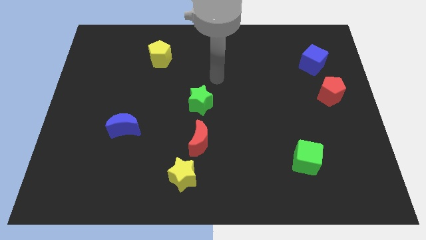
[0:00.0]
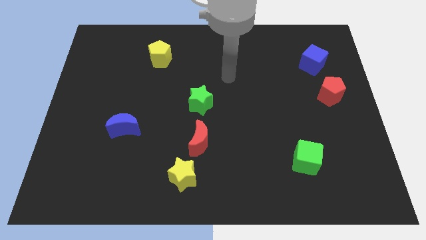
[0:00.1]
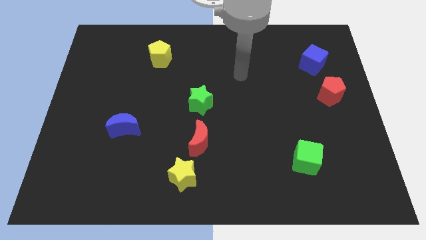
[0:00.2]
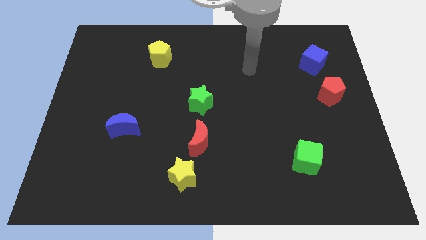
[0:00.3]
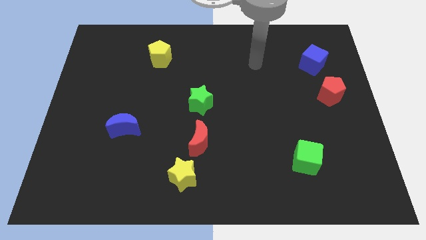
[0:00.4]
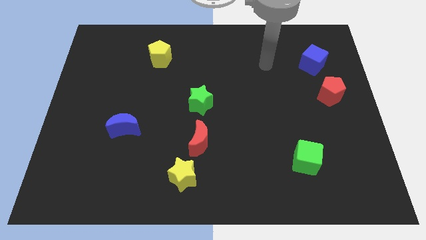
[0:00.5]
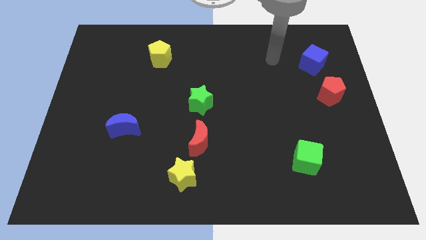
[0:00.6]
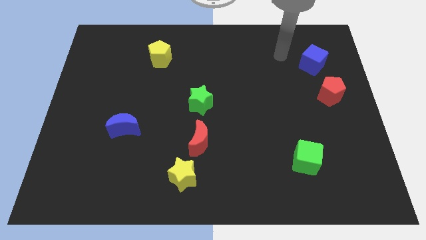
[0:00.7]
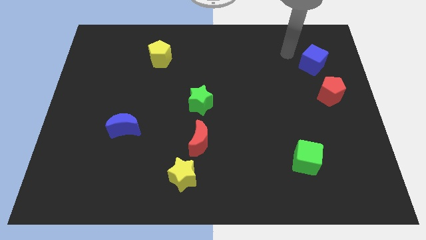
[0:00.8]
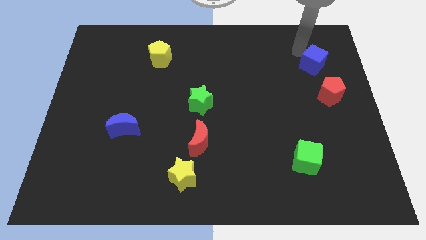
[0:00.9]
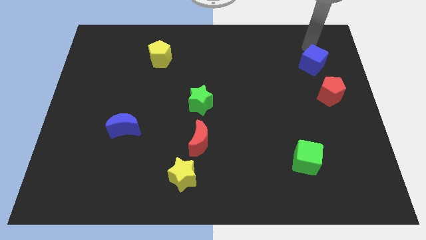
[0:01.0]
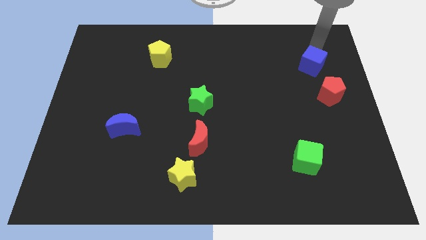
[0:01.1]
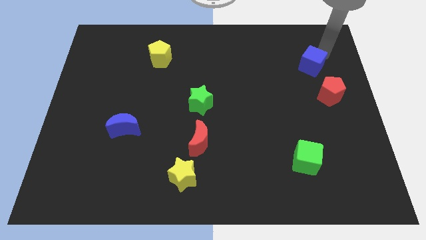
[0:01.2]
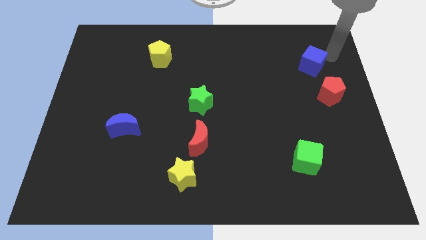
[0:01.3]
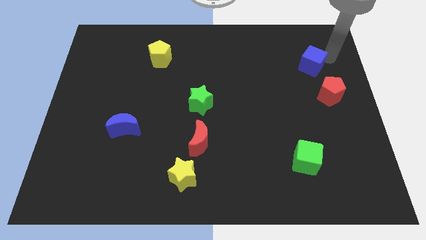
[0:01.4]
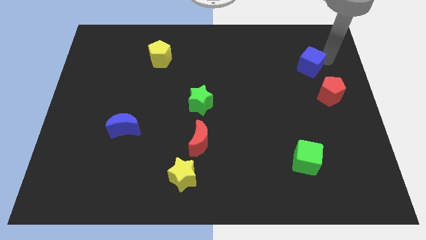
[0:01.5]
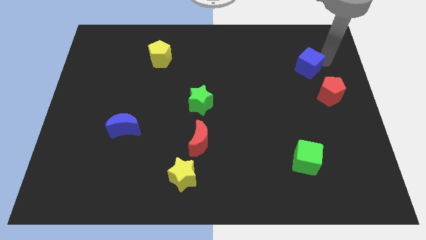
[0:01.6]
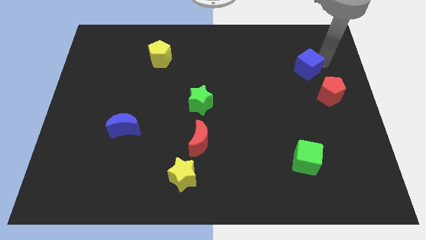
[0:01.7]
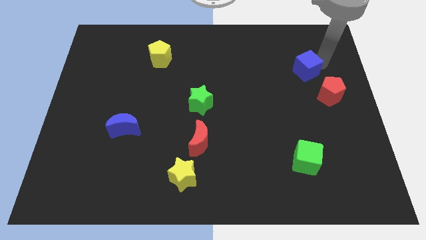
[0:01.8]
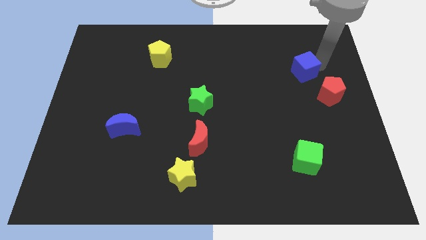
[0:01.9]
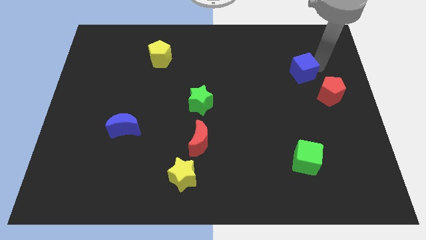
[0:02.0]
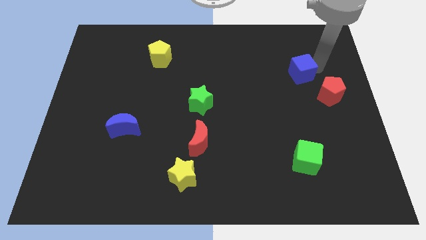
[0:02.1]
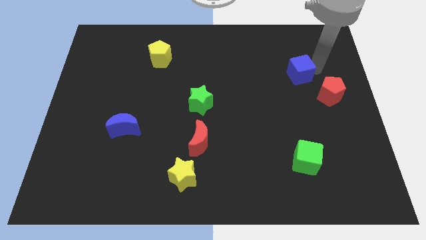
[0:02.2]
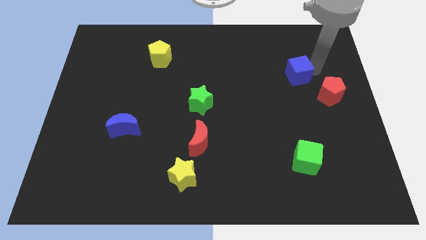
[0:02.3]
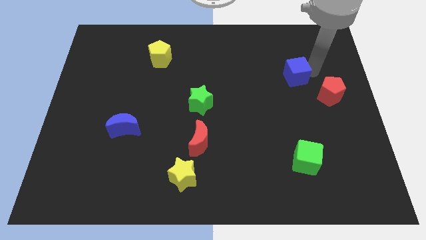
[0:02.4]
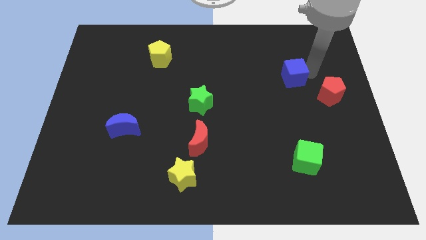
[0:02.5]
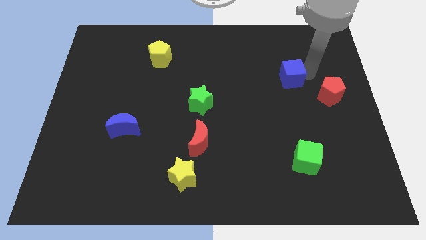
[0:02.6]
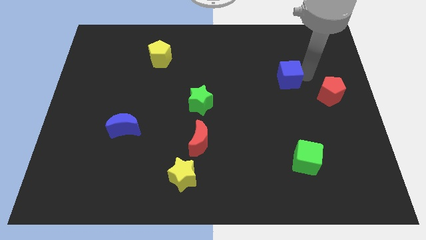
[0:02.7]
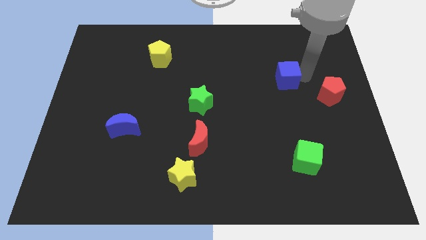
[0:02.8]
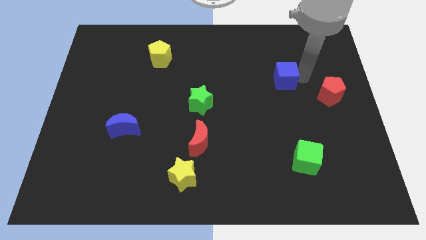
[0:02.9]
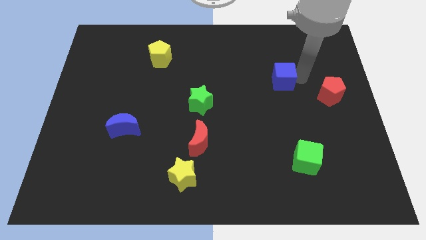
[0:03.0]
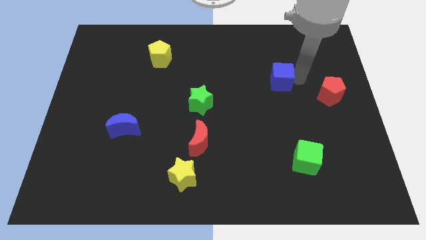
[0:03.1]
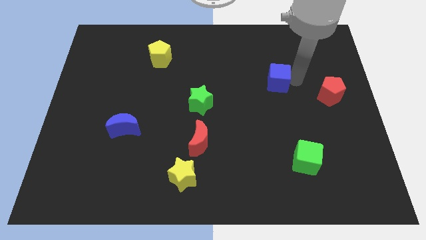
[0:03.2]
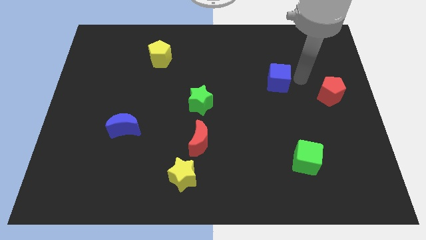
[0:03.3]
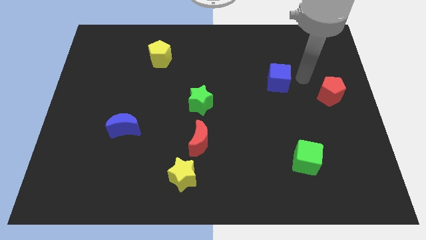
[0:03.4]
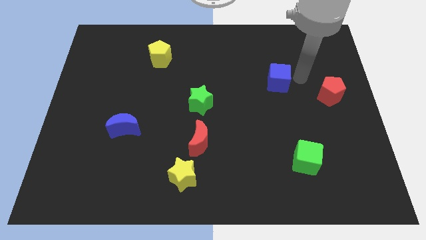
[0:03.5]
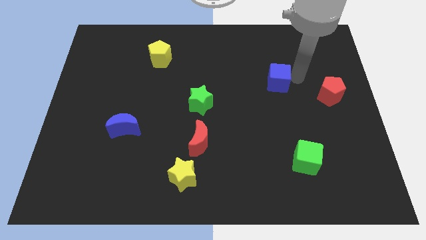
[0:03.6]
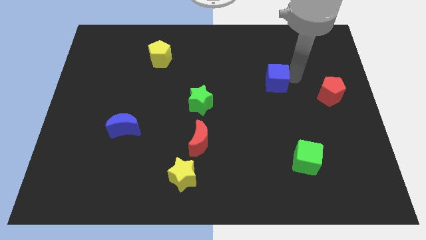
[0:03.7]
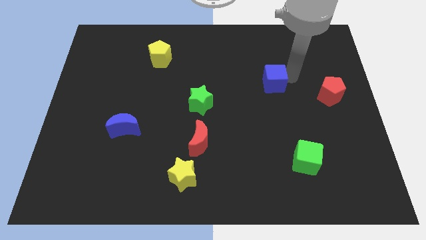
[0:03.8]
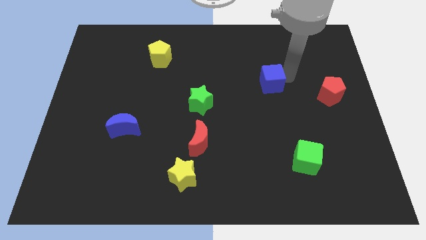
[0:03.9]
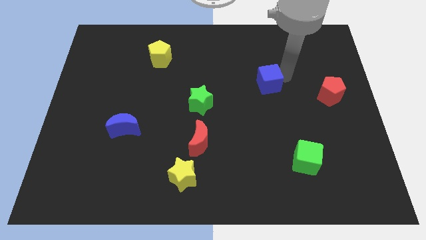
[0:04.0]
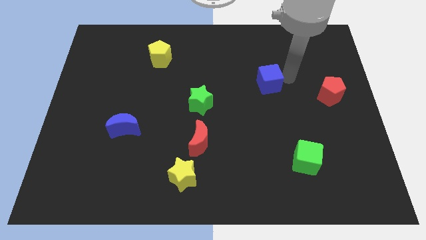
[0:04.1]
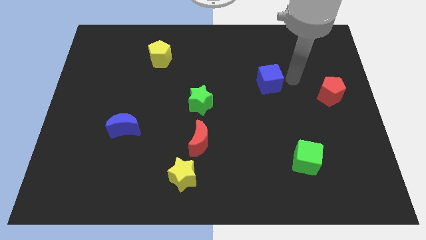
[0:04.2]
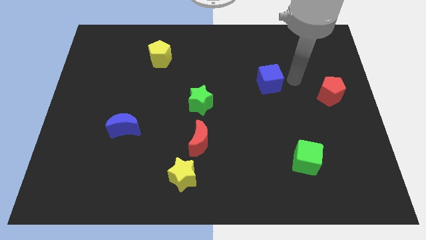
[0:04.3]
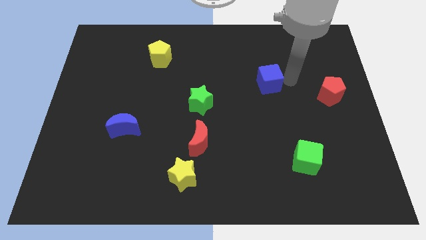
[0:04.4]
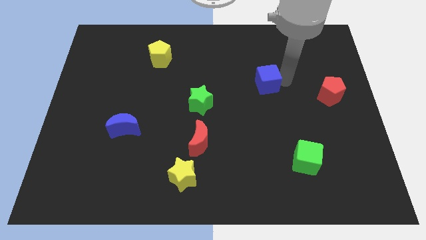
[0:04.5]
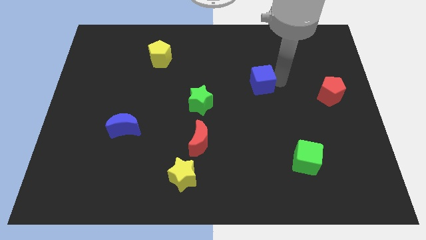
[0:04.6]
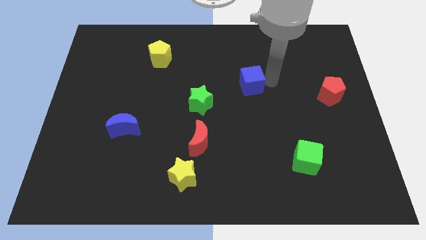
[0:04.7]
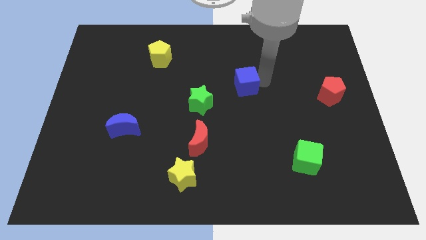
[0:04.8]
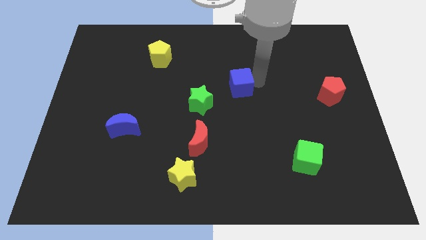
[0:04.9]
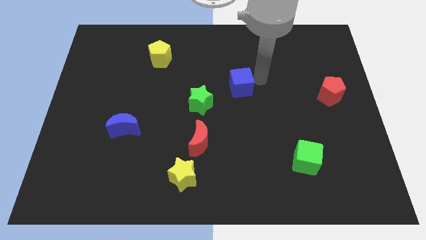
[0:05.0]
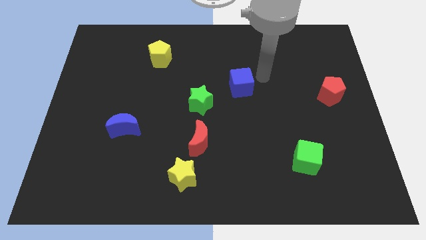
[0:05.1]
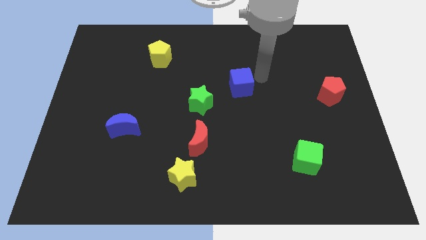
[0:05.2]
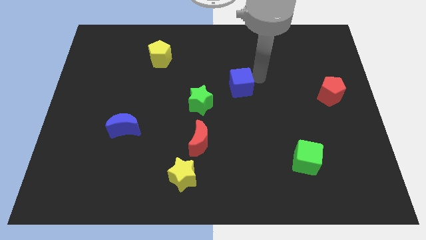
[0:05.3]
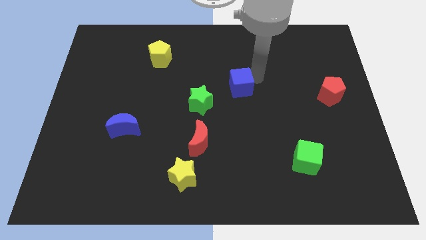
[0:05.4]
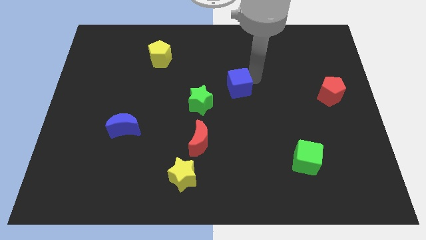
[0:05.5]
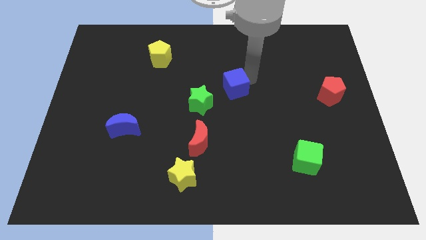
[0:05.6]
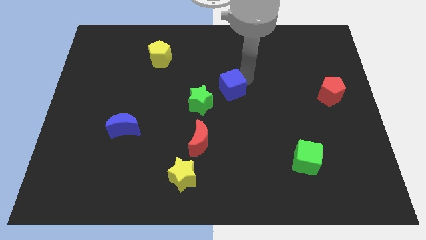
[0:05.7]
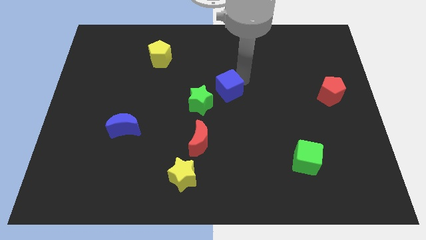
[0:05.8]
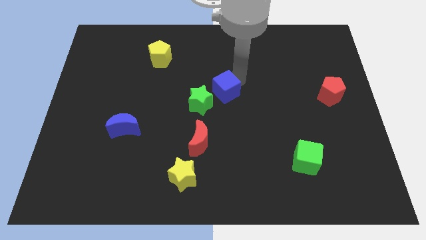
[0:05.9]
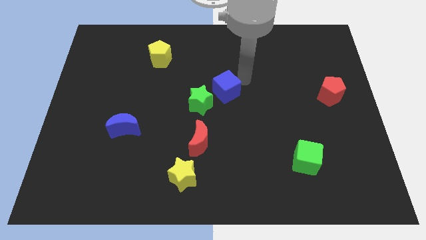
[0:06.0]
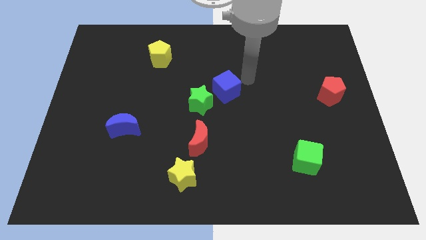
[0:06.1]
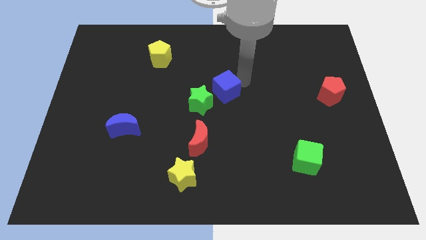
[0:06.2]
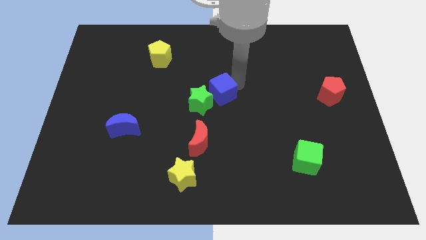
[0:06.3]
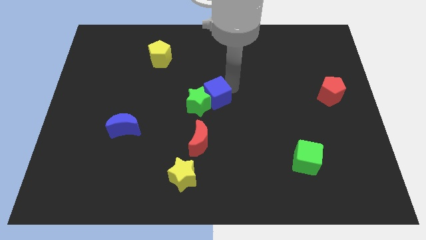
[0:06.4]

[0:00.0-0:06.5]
push the blue cube to the green star

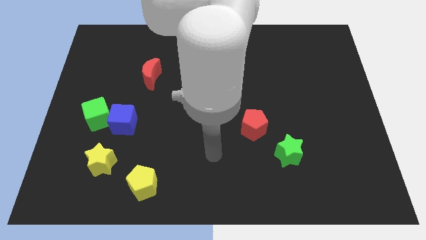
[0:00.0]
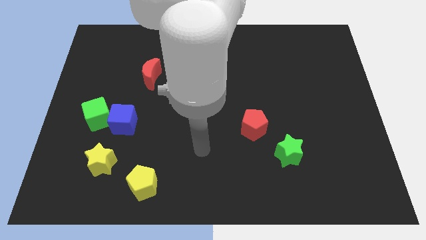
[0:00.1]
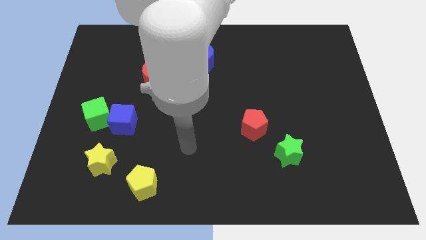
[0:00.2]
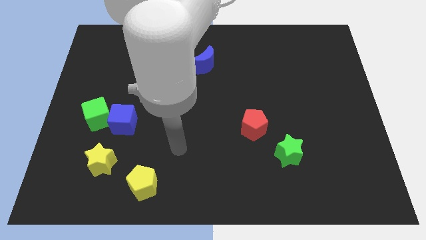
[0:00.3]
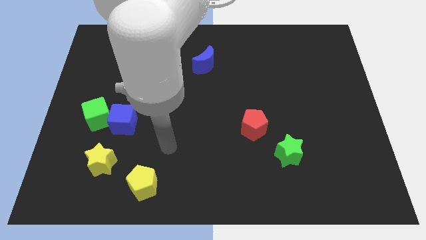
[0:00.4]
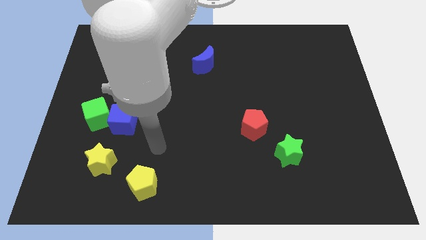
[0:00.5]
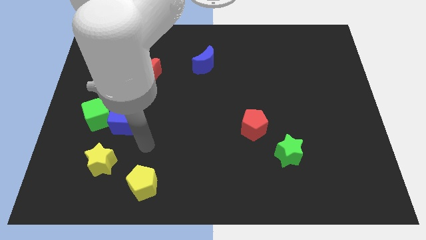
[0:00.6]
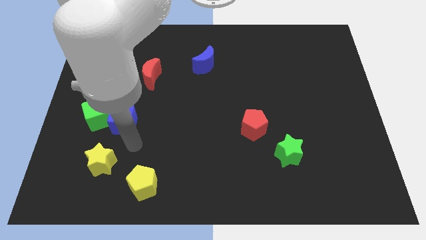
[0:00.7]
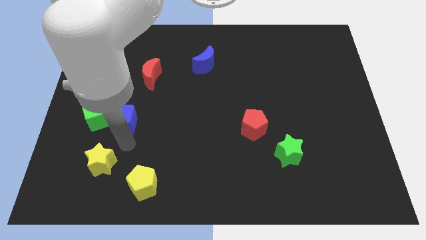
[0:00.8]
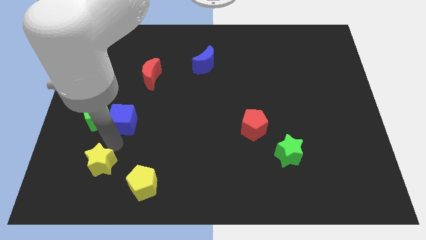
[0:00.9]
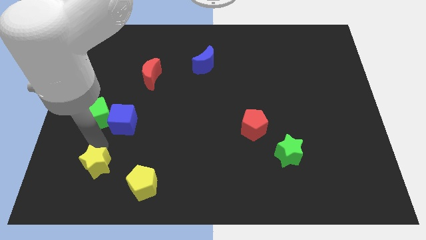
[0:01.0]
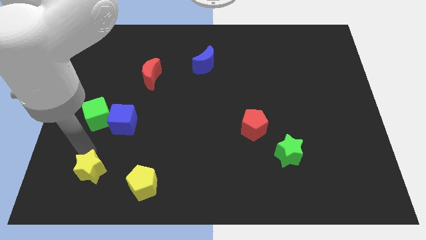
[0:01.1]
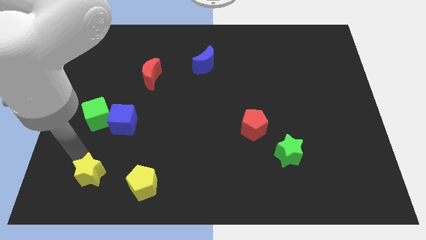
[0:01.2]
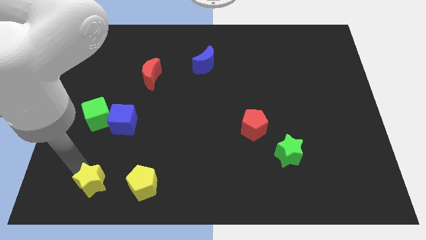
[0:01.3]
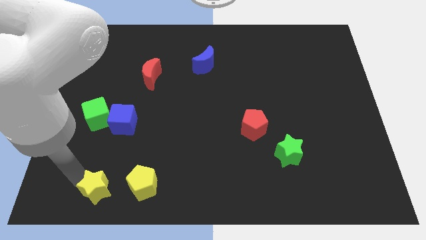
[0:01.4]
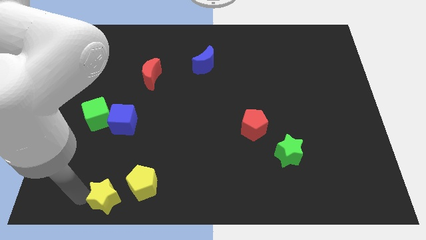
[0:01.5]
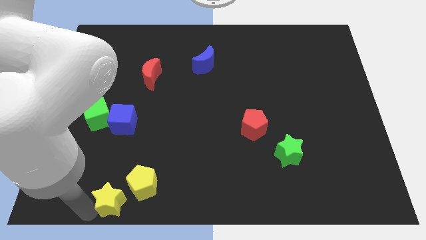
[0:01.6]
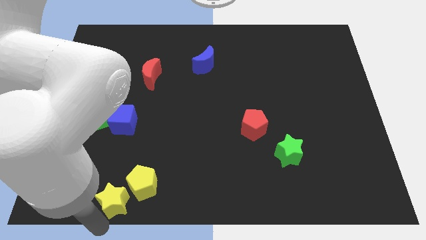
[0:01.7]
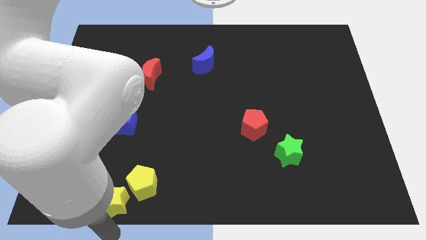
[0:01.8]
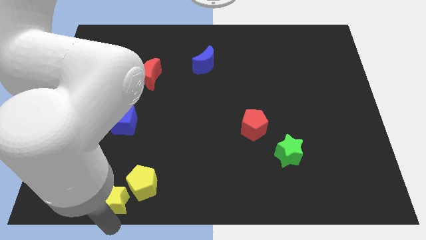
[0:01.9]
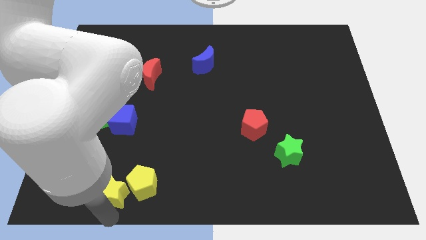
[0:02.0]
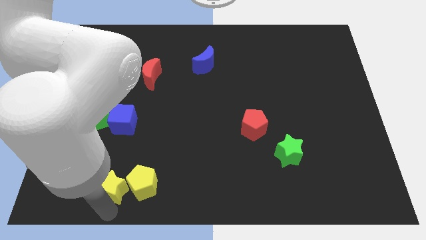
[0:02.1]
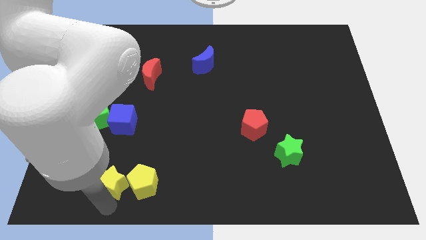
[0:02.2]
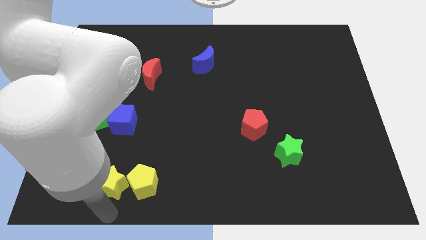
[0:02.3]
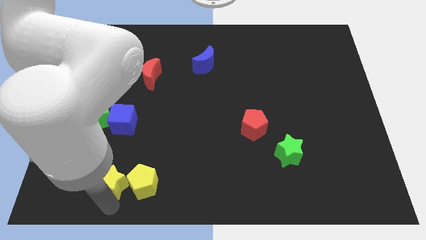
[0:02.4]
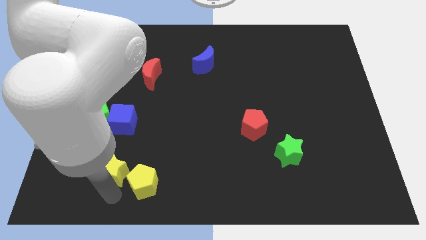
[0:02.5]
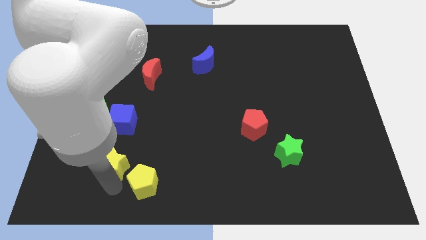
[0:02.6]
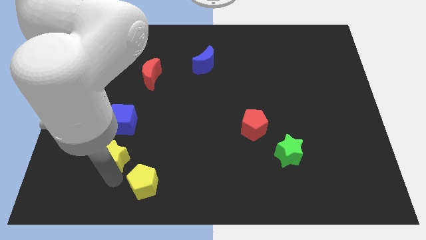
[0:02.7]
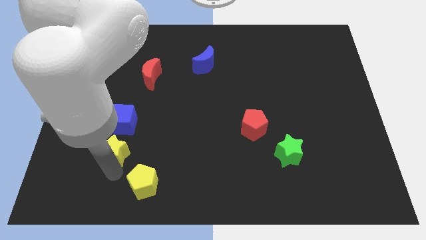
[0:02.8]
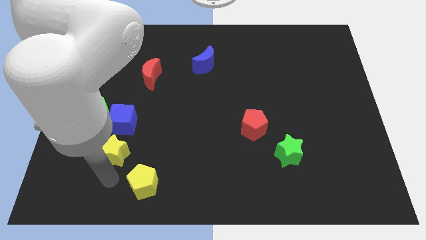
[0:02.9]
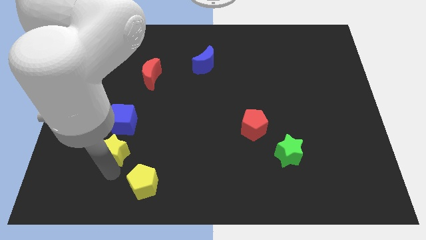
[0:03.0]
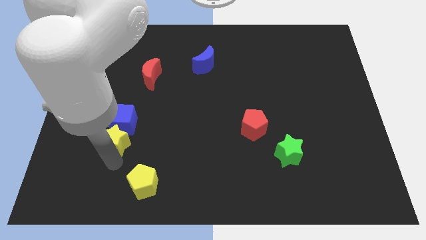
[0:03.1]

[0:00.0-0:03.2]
move the yellow star towards the blue cube
